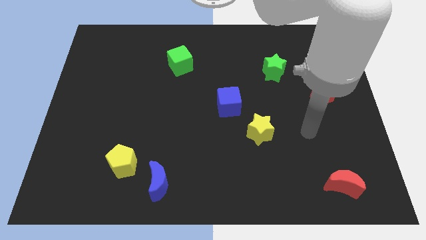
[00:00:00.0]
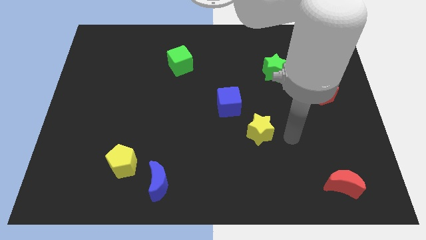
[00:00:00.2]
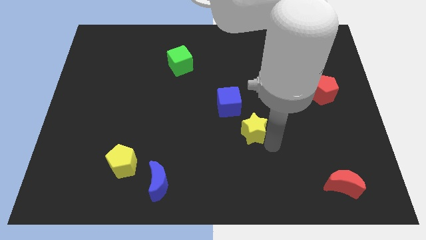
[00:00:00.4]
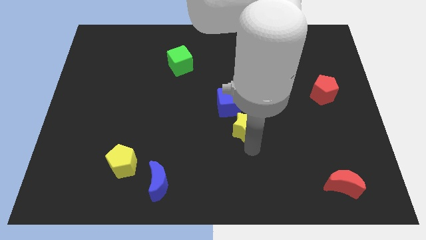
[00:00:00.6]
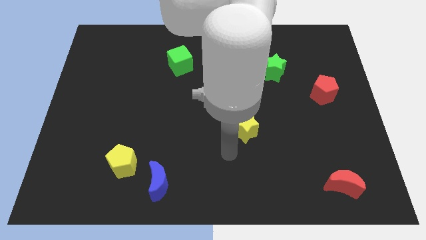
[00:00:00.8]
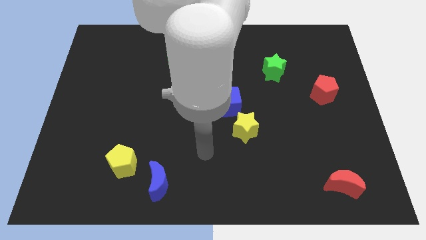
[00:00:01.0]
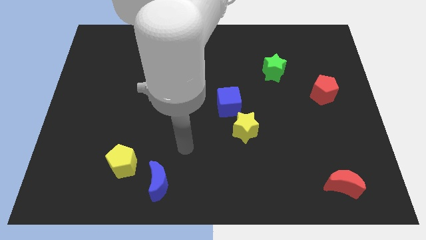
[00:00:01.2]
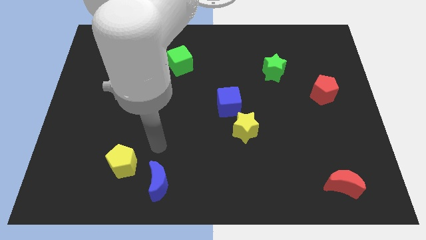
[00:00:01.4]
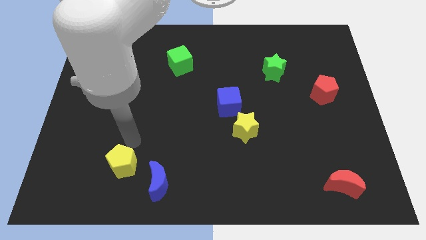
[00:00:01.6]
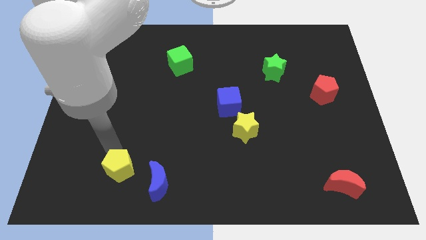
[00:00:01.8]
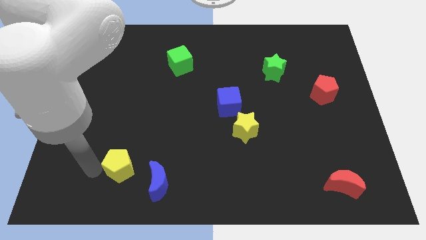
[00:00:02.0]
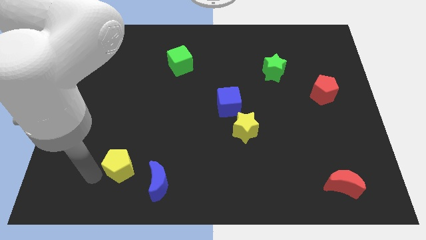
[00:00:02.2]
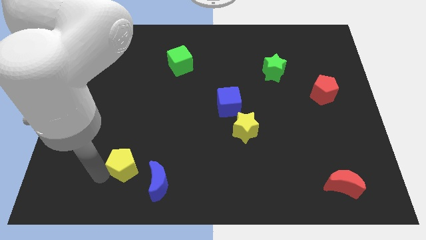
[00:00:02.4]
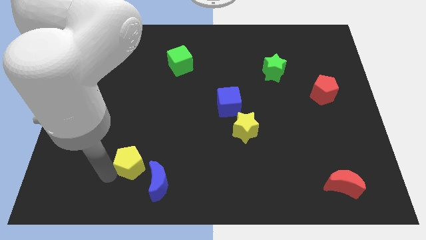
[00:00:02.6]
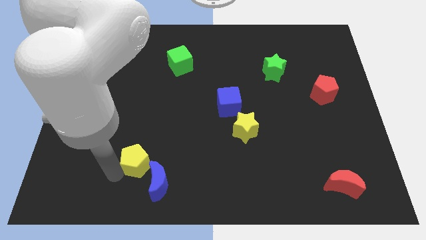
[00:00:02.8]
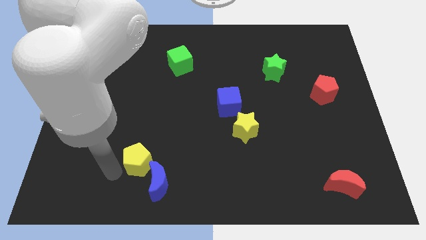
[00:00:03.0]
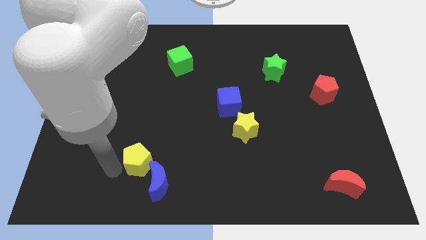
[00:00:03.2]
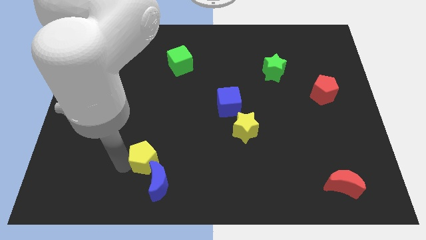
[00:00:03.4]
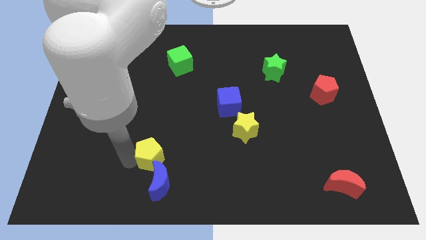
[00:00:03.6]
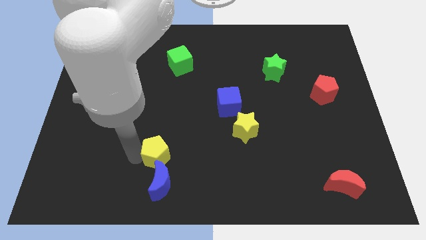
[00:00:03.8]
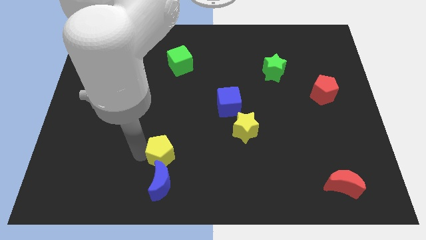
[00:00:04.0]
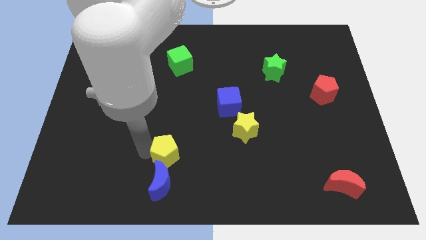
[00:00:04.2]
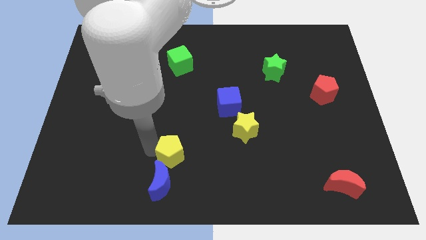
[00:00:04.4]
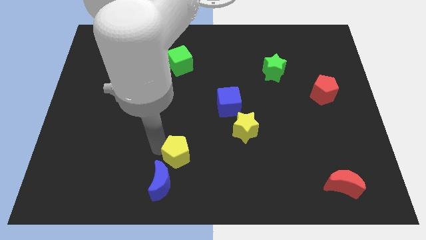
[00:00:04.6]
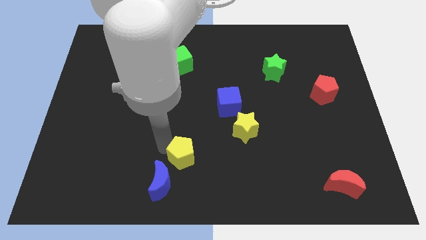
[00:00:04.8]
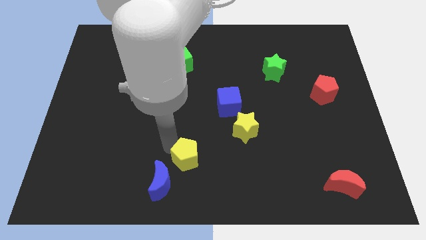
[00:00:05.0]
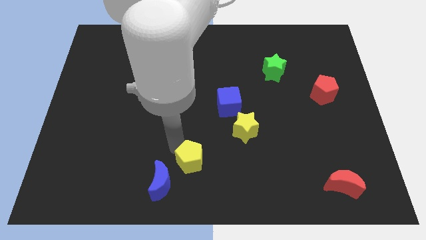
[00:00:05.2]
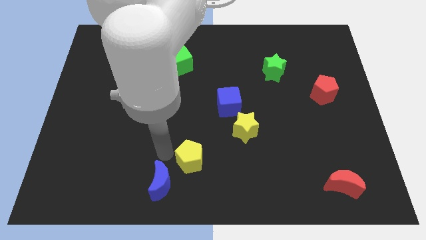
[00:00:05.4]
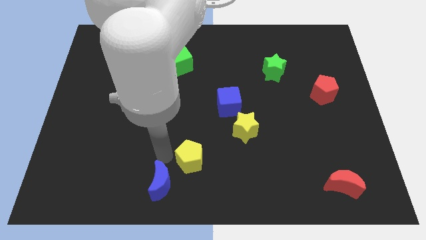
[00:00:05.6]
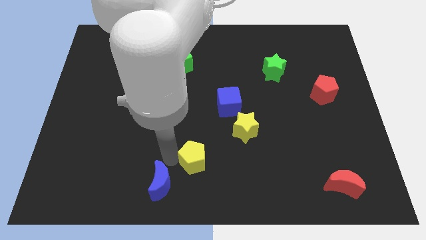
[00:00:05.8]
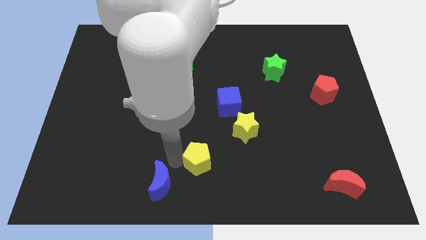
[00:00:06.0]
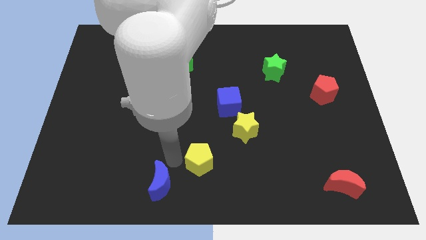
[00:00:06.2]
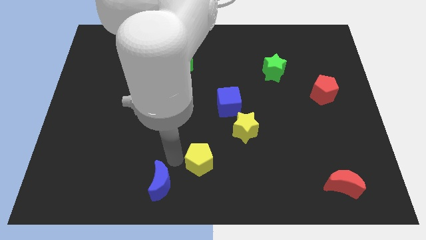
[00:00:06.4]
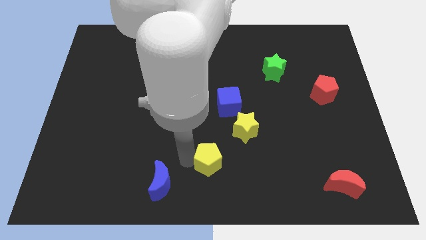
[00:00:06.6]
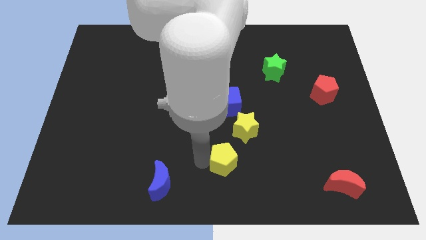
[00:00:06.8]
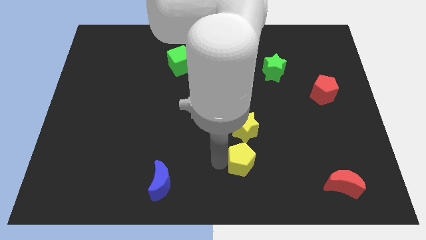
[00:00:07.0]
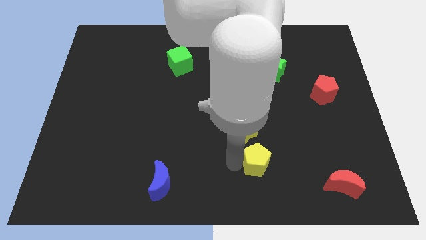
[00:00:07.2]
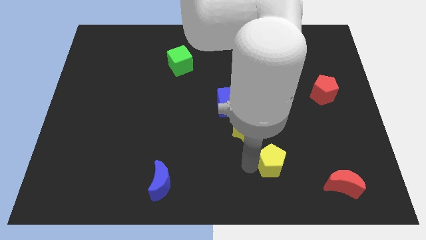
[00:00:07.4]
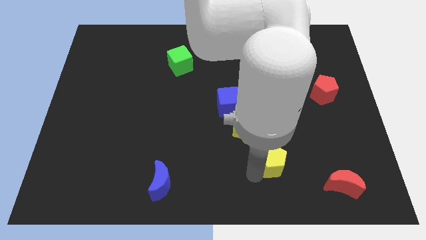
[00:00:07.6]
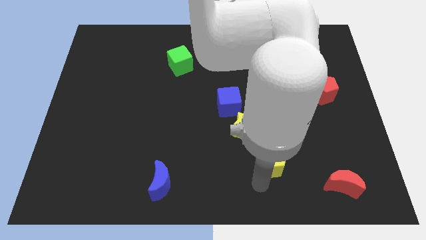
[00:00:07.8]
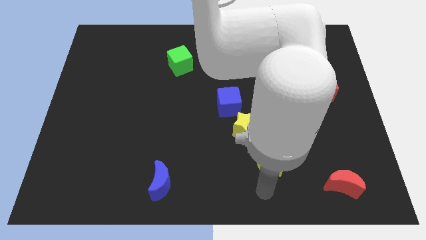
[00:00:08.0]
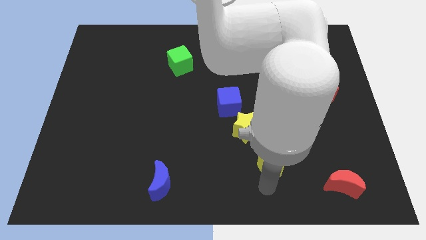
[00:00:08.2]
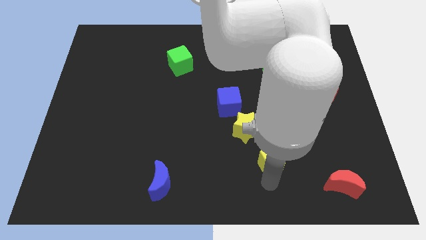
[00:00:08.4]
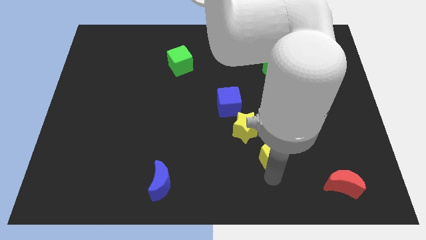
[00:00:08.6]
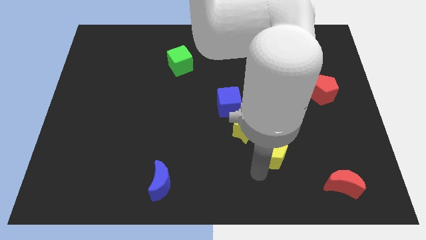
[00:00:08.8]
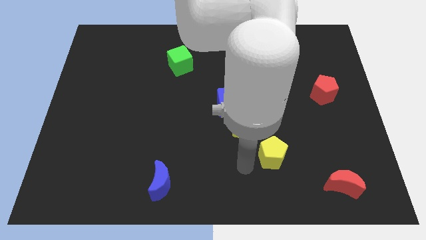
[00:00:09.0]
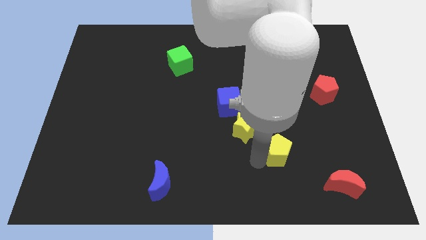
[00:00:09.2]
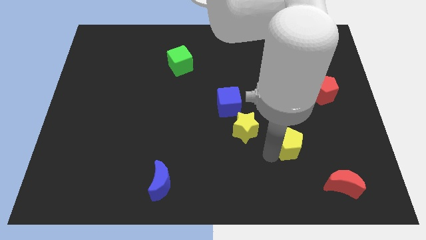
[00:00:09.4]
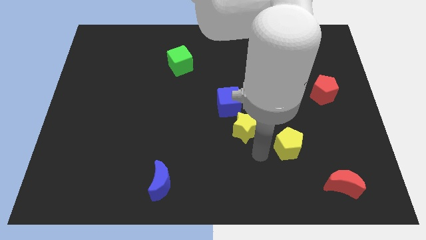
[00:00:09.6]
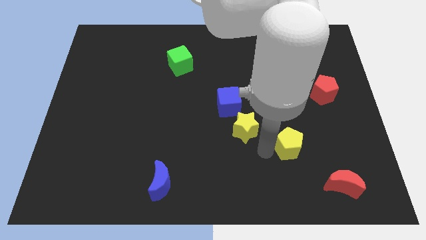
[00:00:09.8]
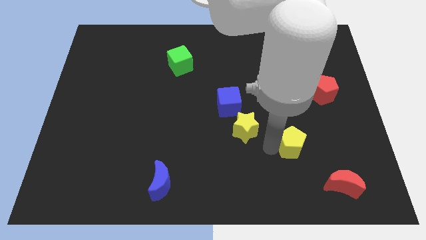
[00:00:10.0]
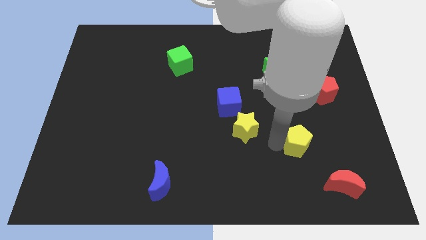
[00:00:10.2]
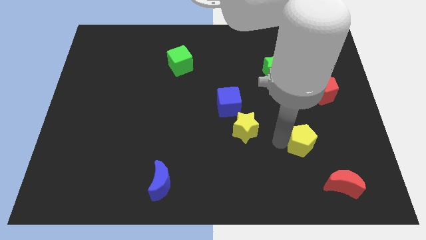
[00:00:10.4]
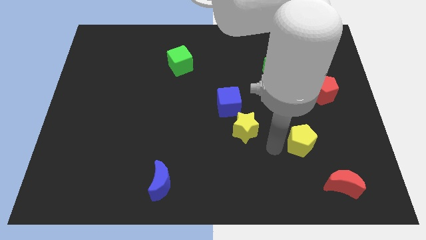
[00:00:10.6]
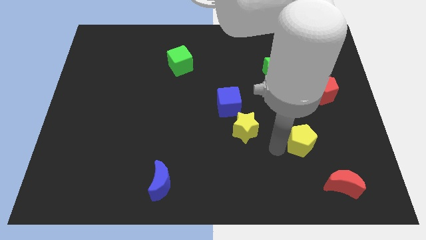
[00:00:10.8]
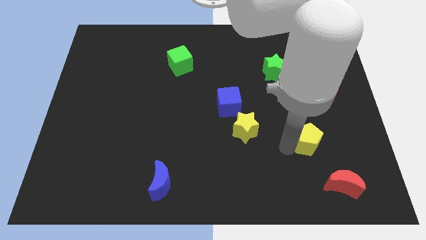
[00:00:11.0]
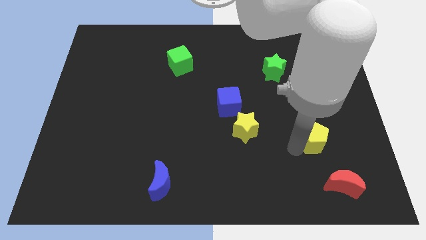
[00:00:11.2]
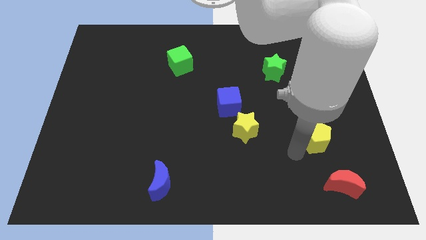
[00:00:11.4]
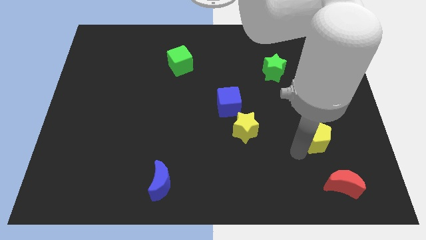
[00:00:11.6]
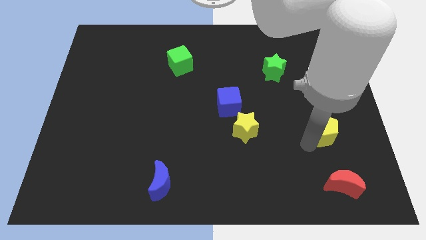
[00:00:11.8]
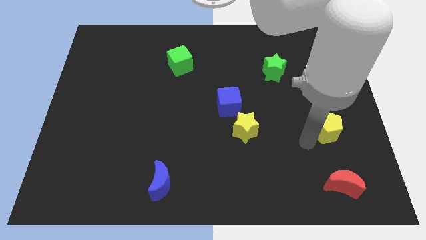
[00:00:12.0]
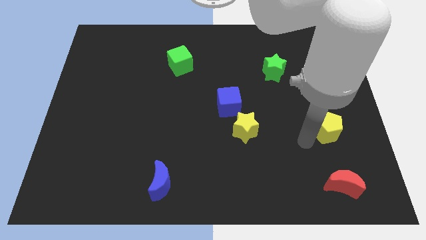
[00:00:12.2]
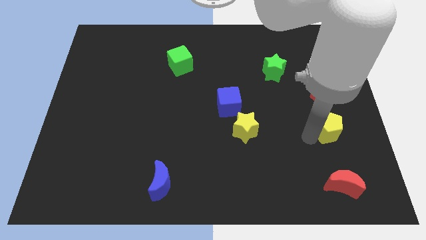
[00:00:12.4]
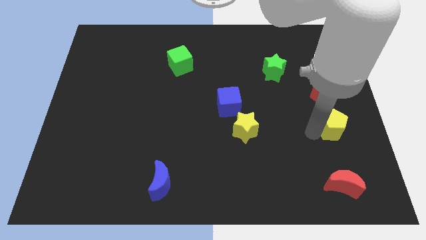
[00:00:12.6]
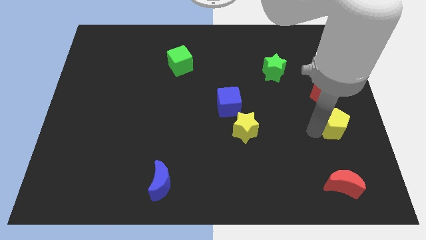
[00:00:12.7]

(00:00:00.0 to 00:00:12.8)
move the yellow pentagon to the right side of the board
